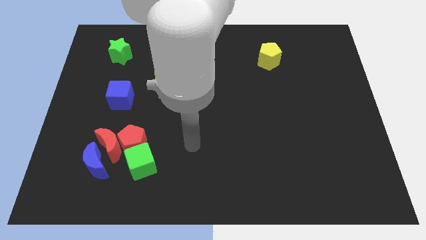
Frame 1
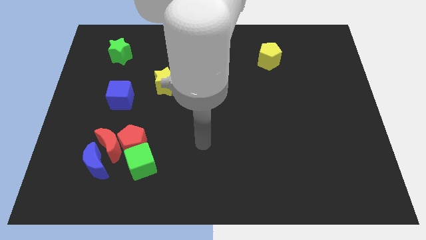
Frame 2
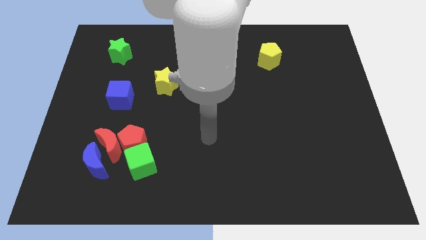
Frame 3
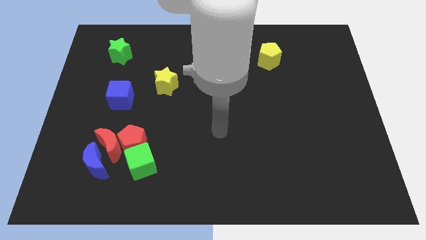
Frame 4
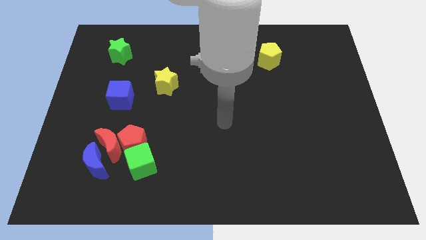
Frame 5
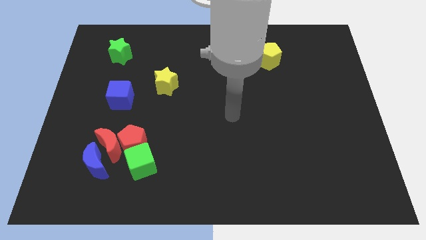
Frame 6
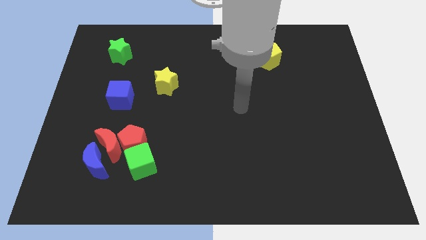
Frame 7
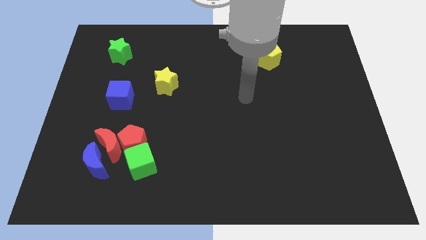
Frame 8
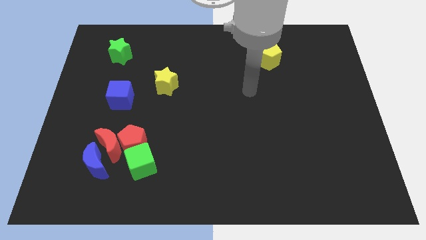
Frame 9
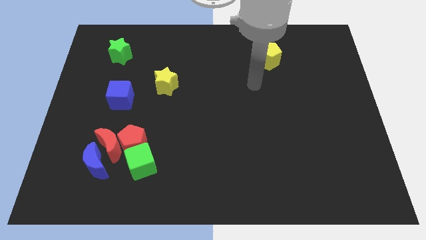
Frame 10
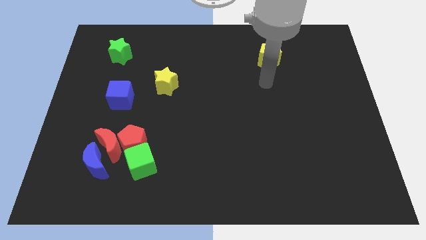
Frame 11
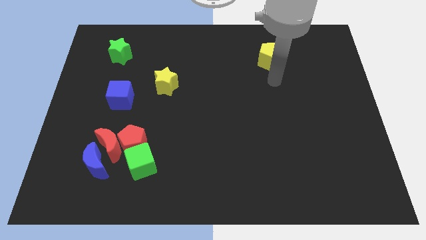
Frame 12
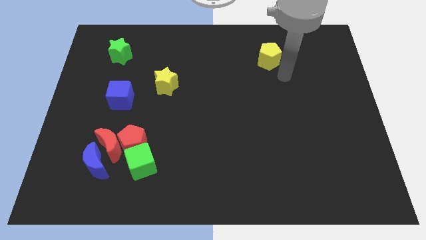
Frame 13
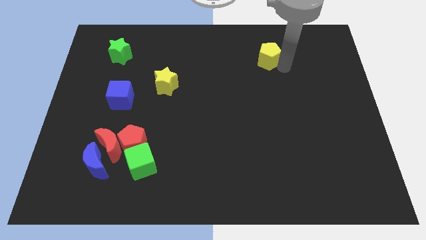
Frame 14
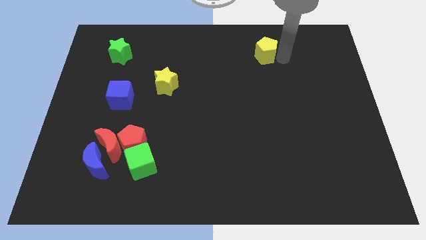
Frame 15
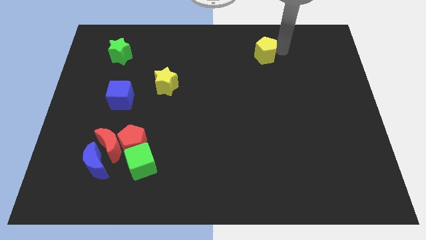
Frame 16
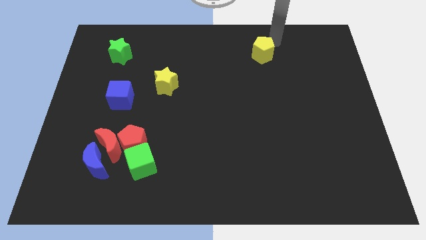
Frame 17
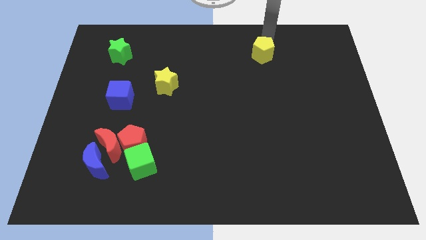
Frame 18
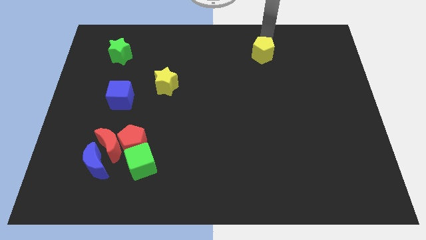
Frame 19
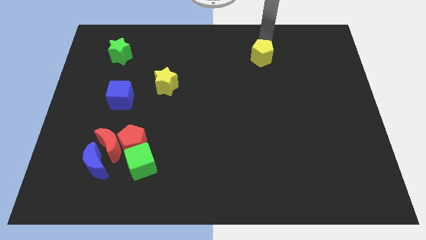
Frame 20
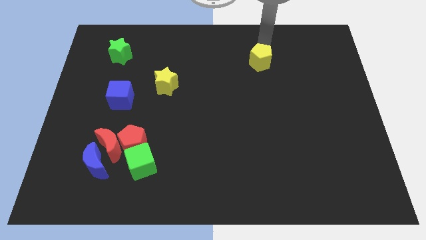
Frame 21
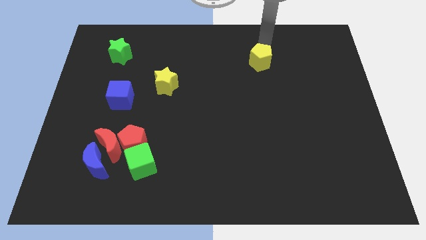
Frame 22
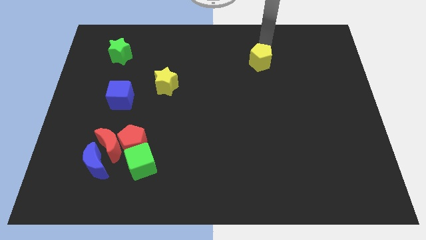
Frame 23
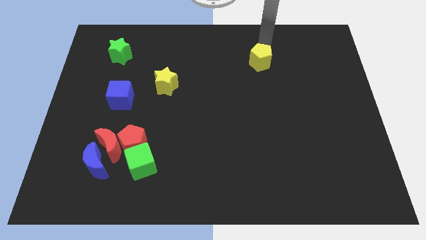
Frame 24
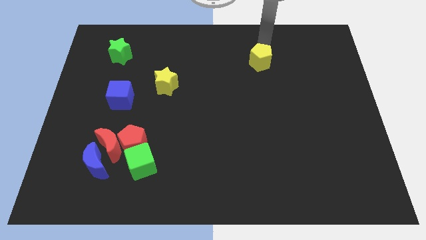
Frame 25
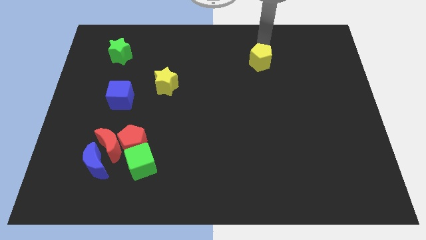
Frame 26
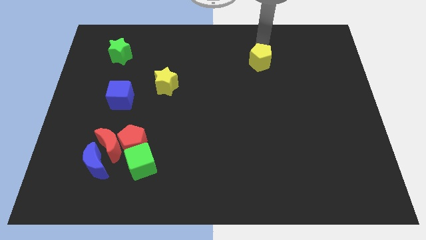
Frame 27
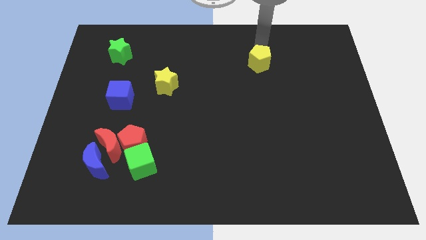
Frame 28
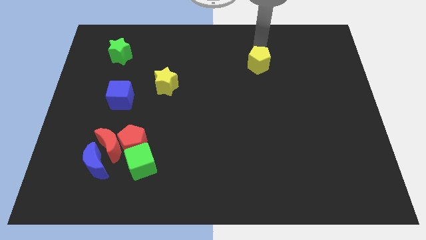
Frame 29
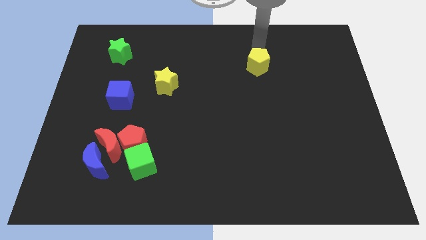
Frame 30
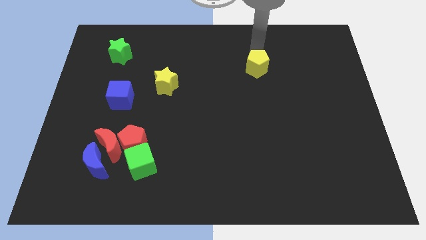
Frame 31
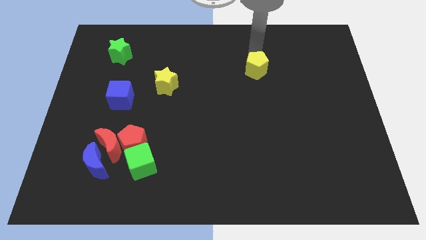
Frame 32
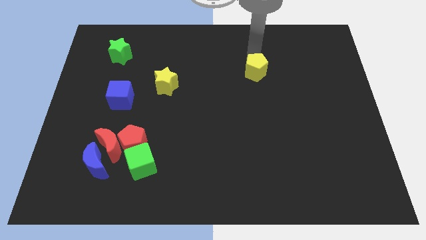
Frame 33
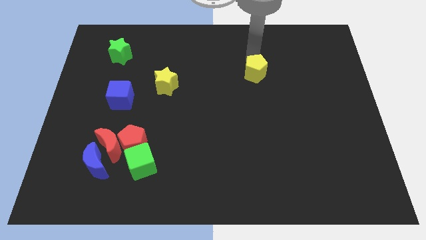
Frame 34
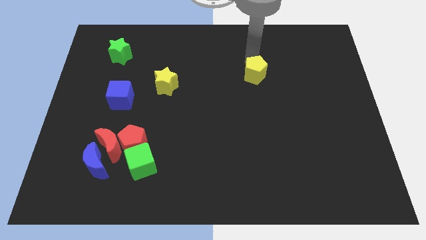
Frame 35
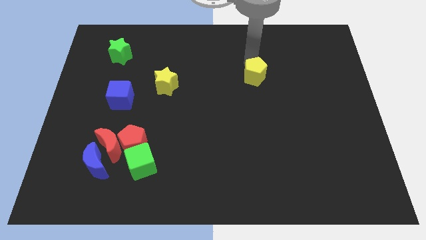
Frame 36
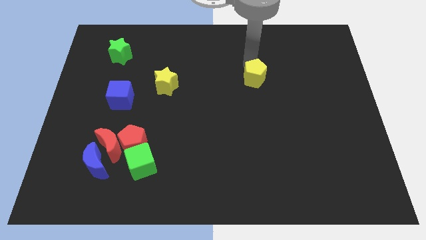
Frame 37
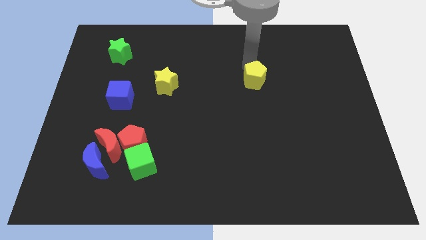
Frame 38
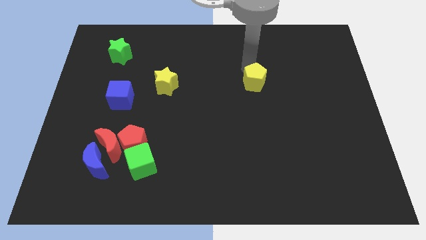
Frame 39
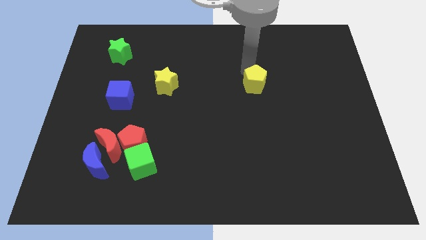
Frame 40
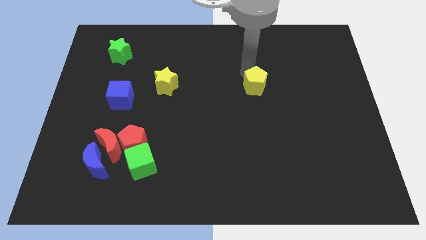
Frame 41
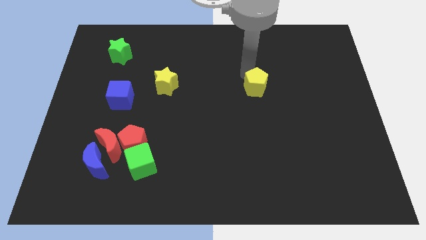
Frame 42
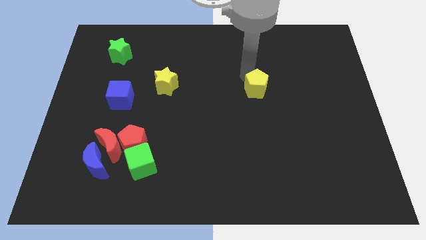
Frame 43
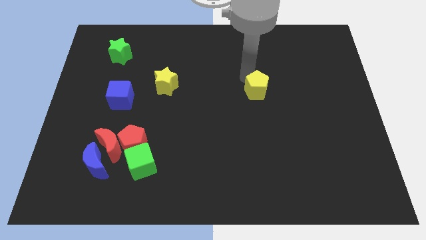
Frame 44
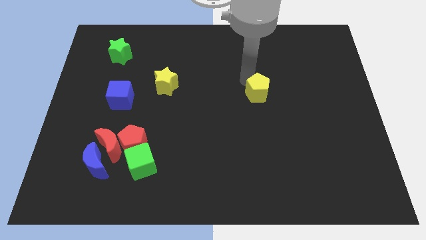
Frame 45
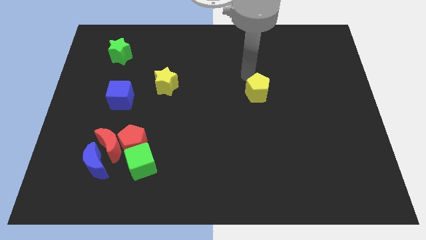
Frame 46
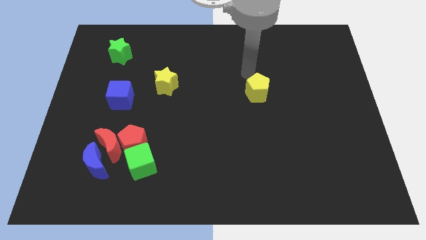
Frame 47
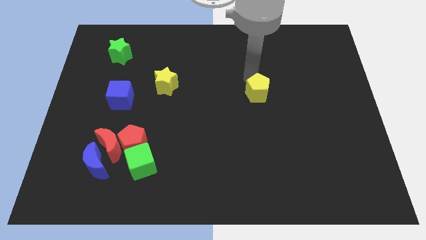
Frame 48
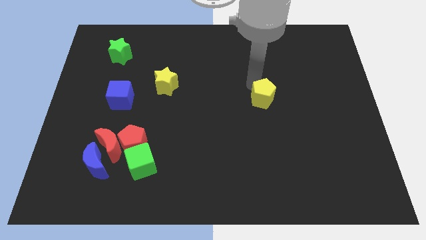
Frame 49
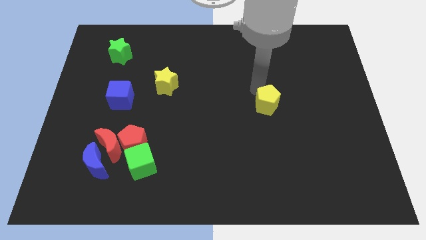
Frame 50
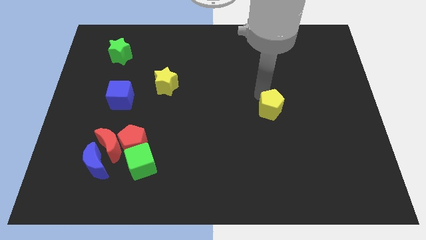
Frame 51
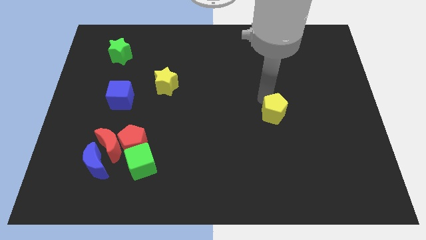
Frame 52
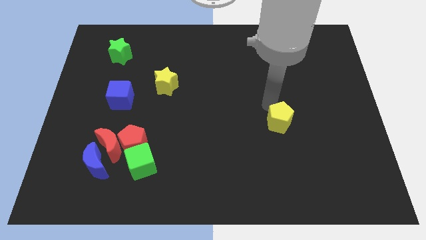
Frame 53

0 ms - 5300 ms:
push the yellow pentagon down

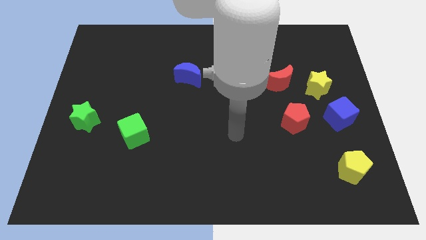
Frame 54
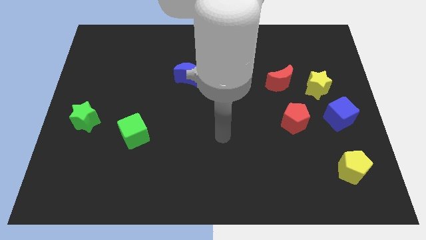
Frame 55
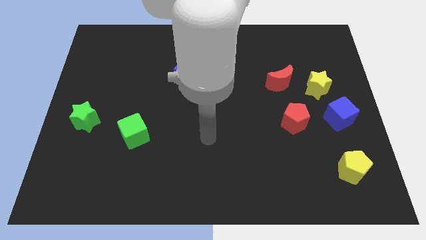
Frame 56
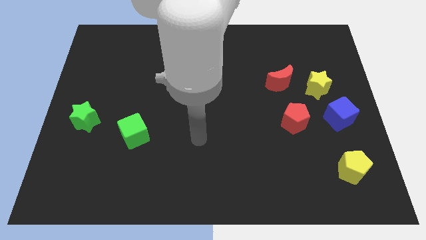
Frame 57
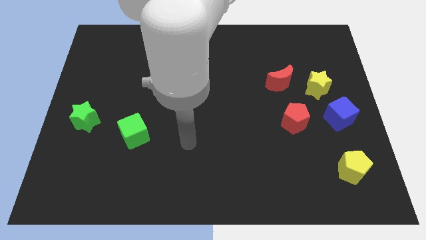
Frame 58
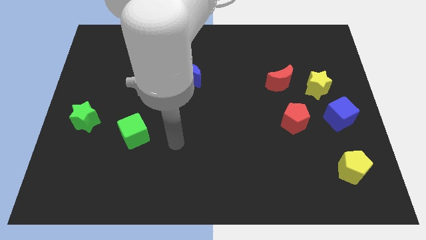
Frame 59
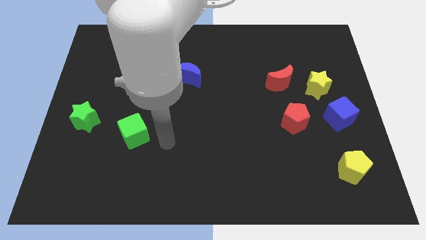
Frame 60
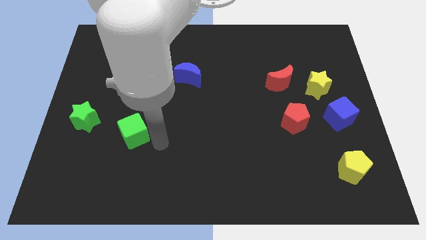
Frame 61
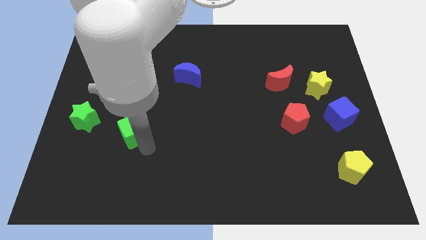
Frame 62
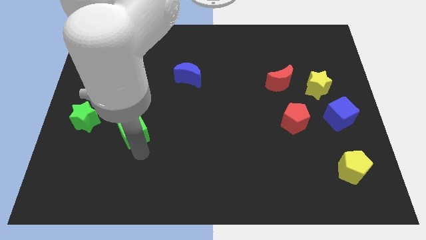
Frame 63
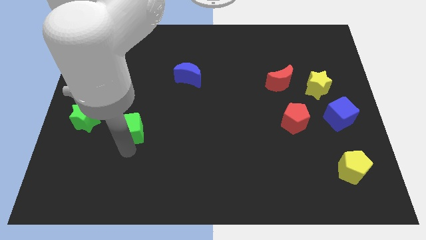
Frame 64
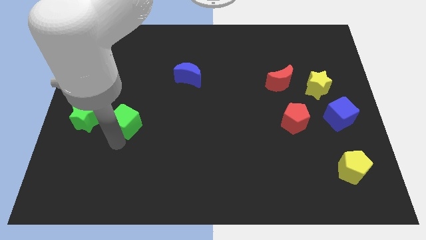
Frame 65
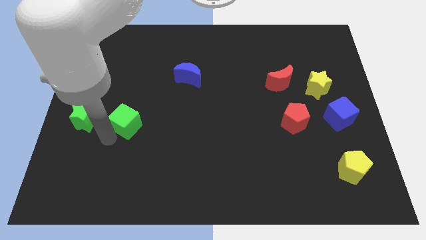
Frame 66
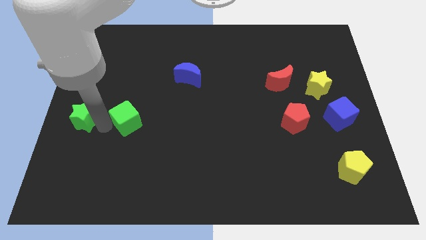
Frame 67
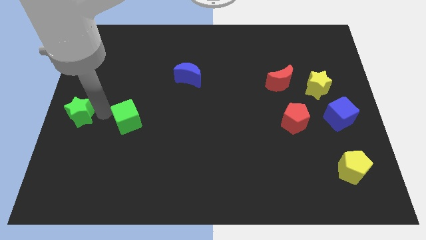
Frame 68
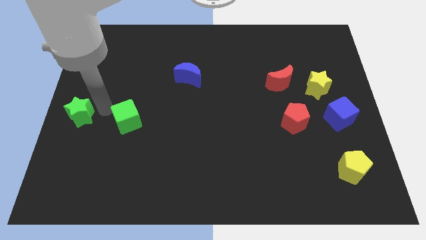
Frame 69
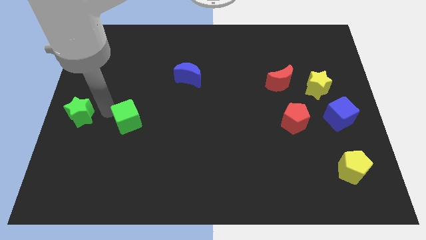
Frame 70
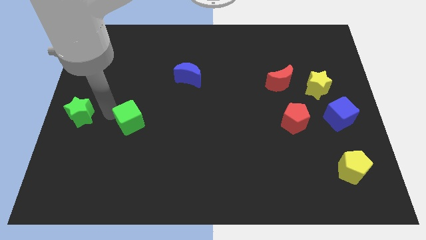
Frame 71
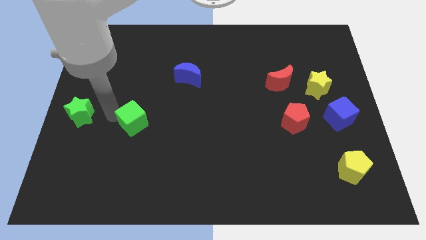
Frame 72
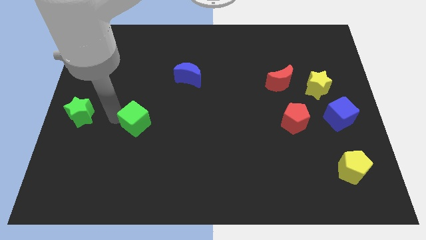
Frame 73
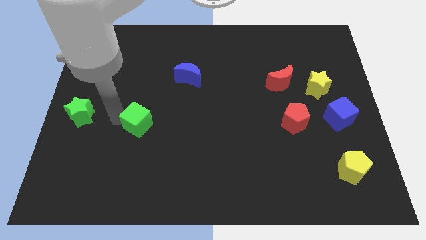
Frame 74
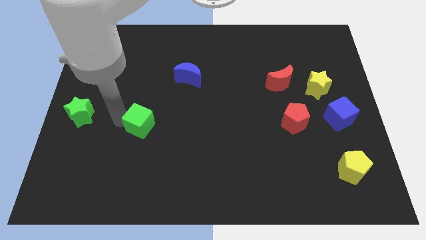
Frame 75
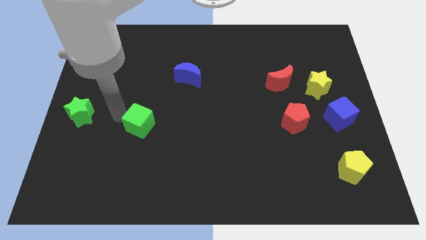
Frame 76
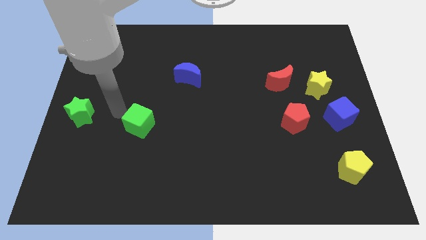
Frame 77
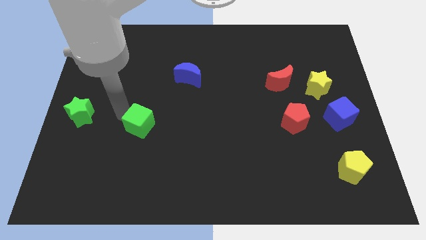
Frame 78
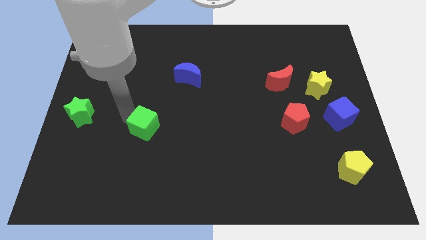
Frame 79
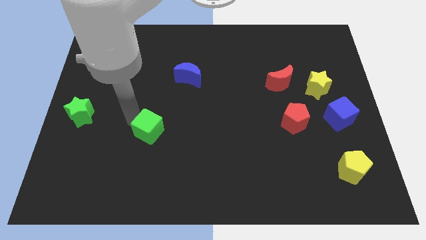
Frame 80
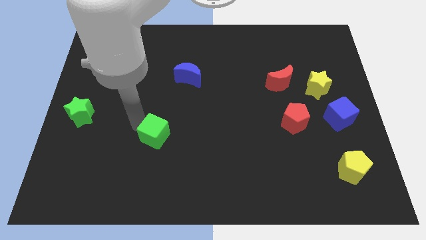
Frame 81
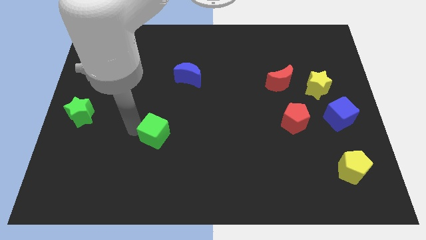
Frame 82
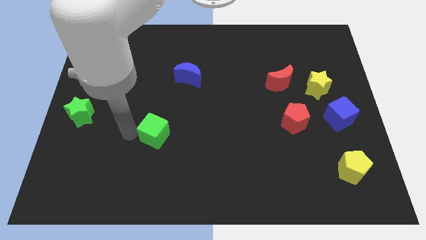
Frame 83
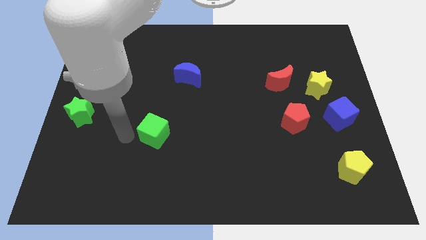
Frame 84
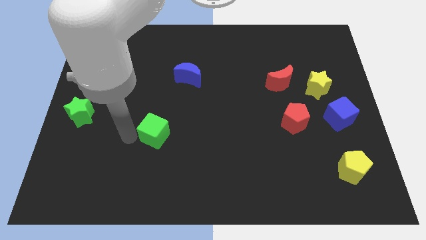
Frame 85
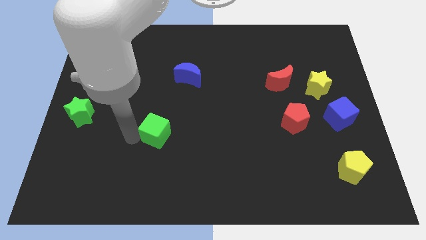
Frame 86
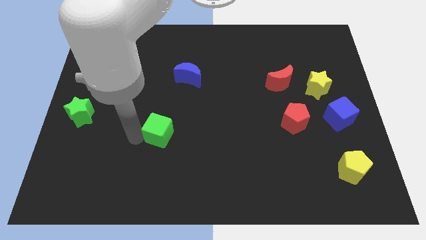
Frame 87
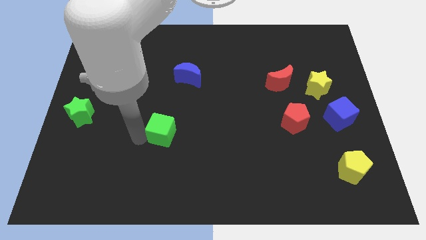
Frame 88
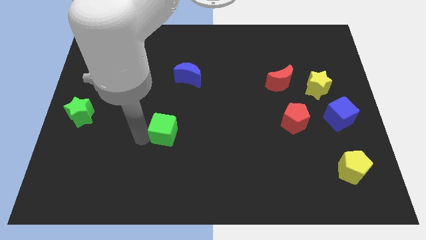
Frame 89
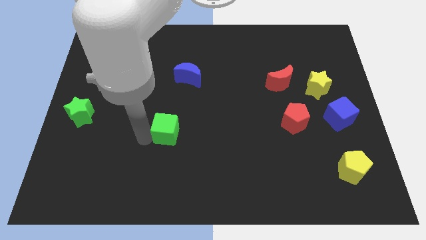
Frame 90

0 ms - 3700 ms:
slide the green cube a little right
